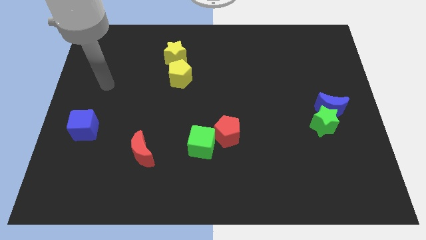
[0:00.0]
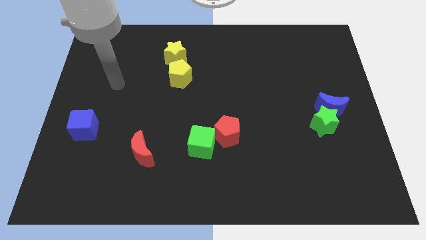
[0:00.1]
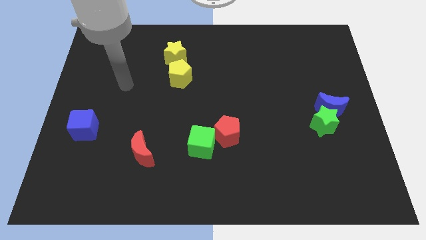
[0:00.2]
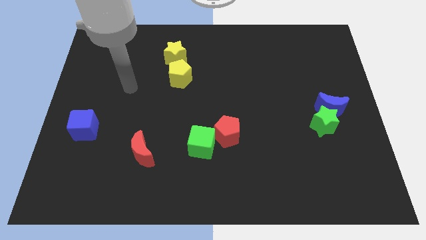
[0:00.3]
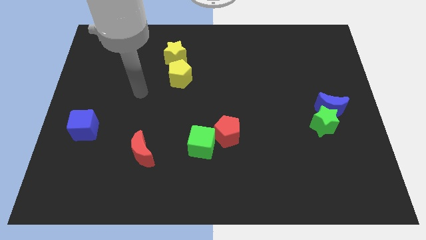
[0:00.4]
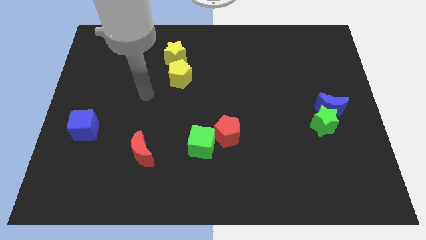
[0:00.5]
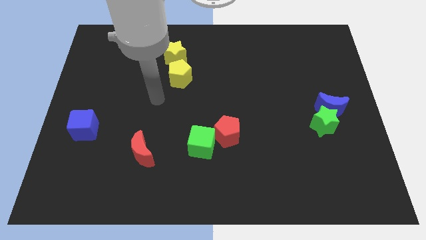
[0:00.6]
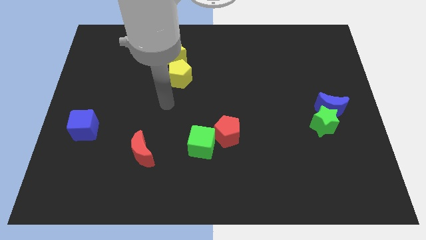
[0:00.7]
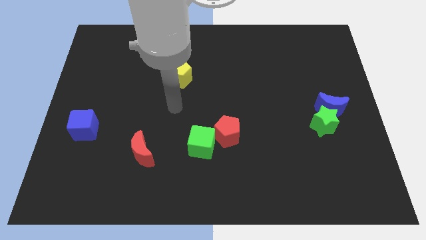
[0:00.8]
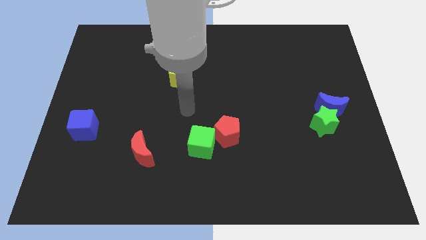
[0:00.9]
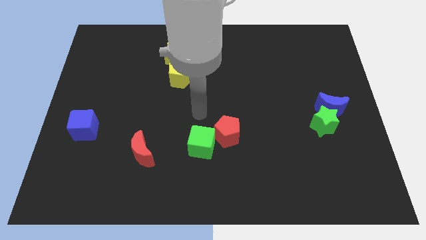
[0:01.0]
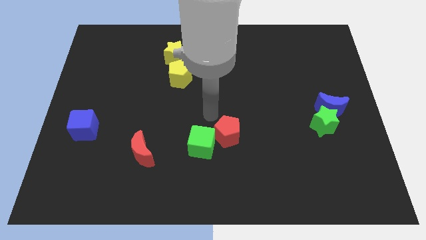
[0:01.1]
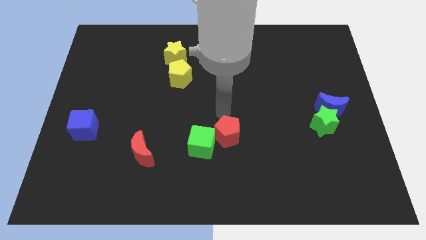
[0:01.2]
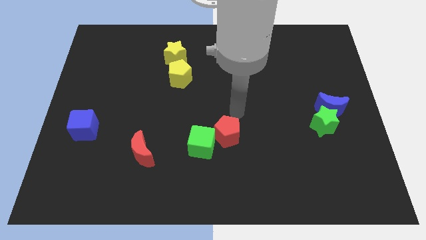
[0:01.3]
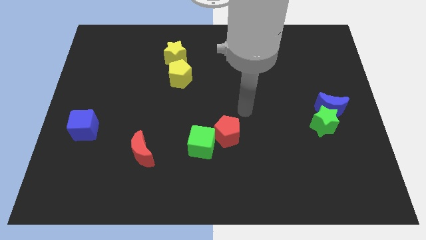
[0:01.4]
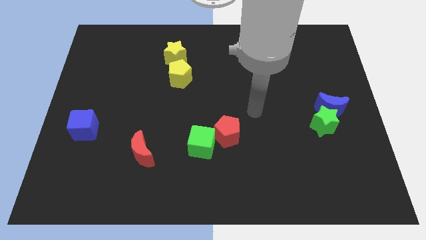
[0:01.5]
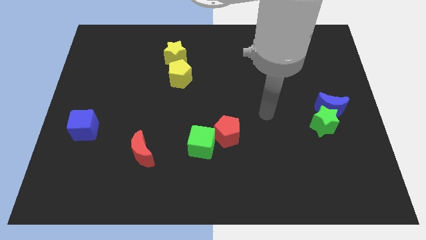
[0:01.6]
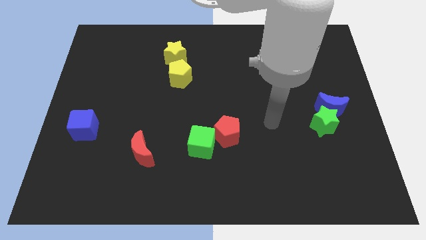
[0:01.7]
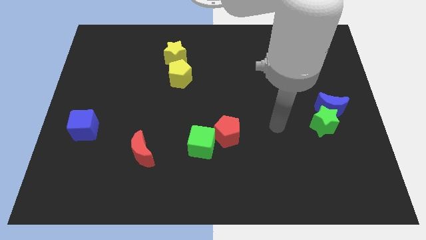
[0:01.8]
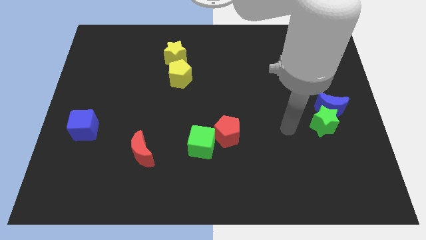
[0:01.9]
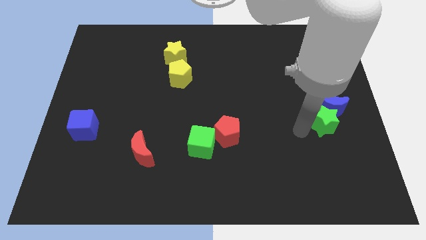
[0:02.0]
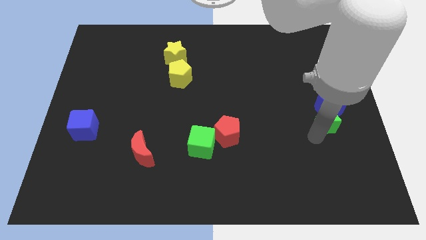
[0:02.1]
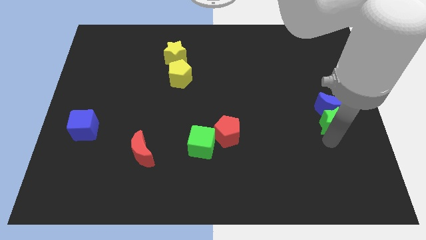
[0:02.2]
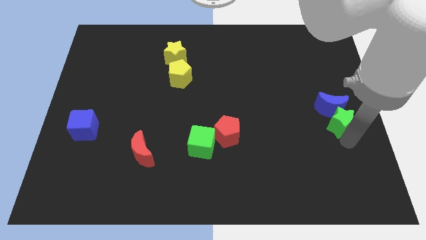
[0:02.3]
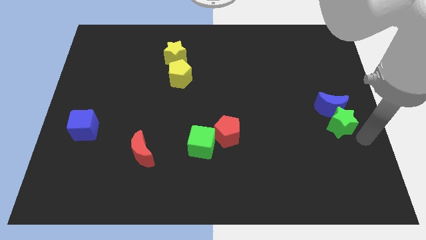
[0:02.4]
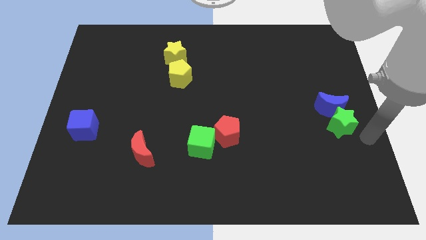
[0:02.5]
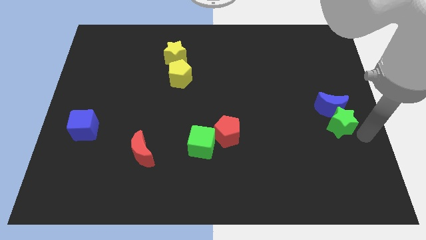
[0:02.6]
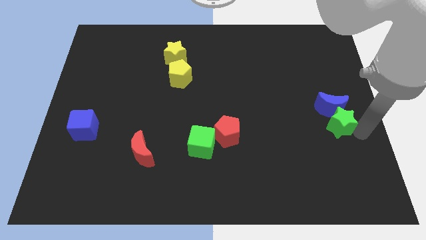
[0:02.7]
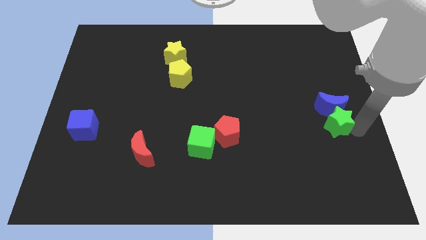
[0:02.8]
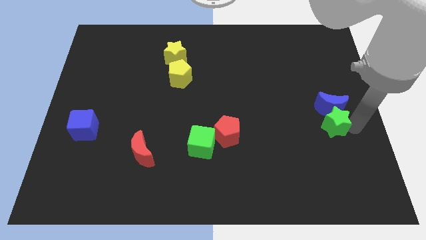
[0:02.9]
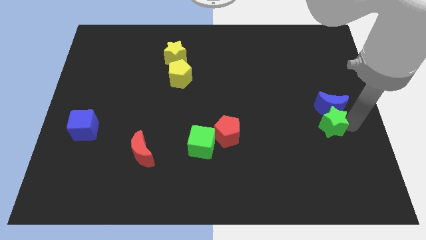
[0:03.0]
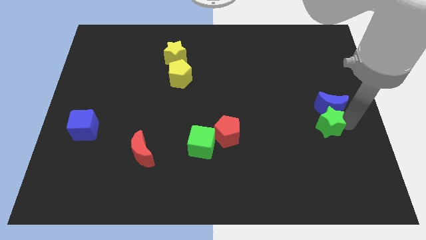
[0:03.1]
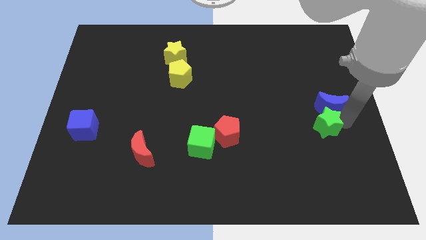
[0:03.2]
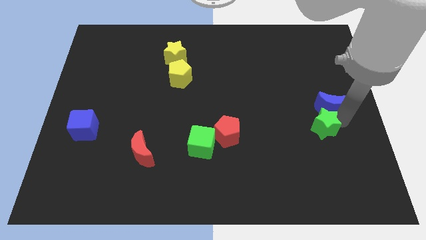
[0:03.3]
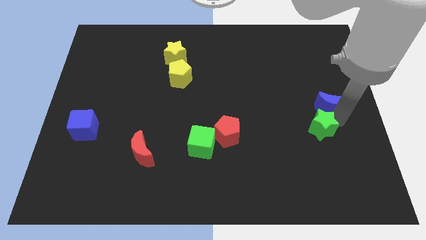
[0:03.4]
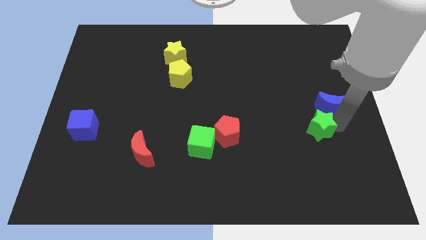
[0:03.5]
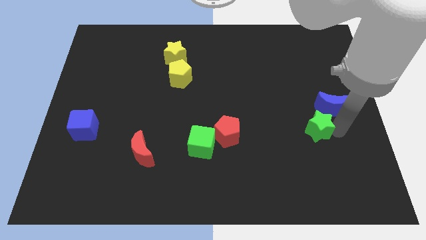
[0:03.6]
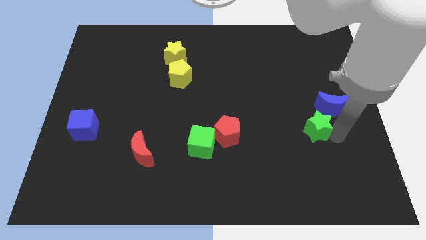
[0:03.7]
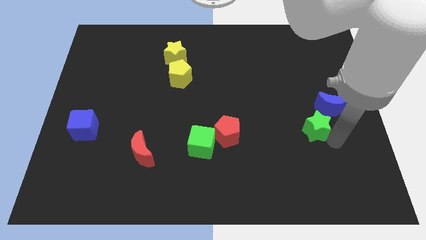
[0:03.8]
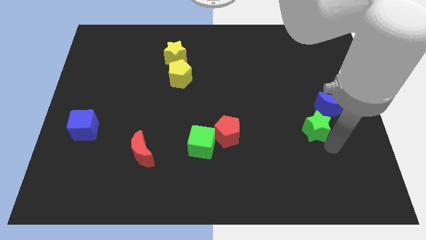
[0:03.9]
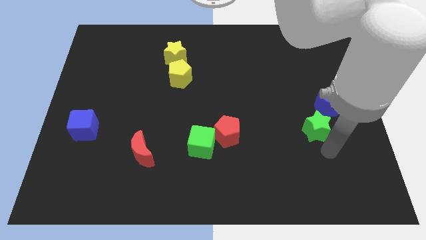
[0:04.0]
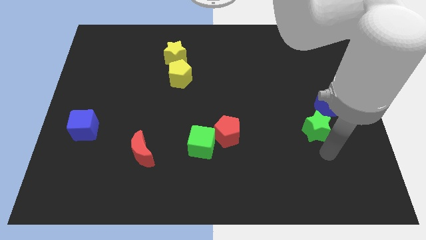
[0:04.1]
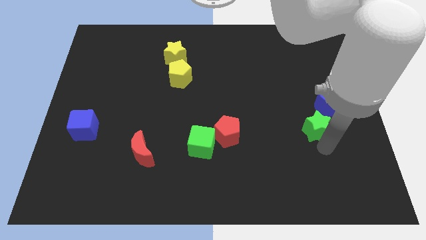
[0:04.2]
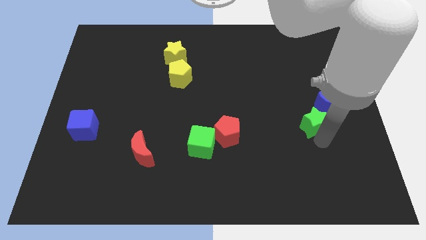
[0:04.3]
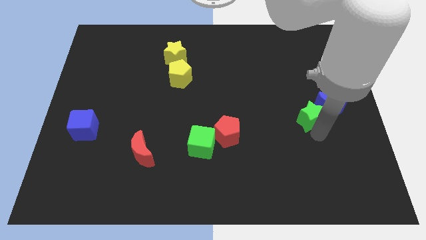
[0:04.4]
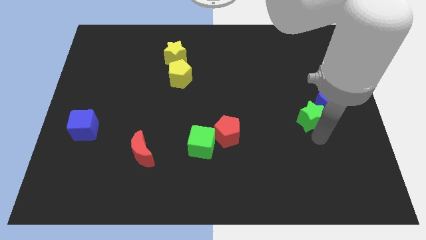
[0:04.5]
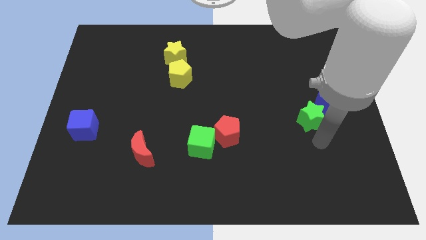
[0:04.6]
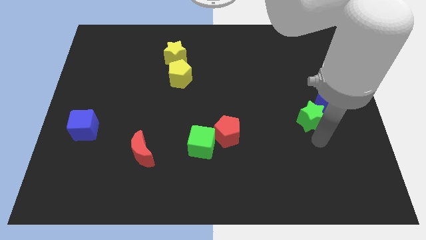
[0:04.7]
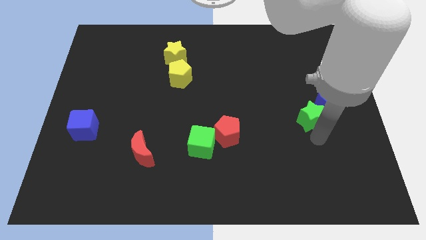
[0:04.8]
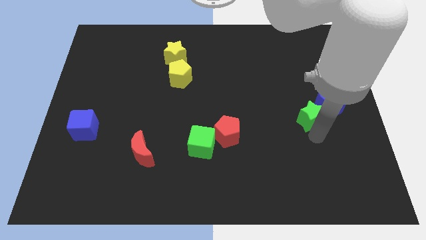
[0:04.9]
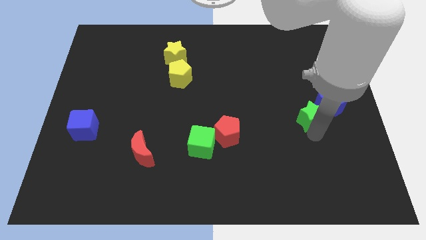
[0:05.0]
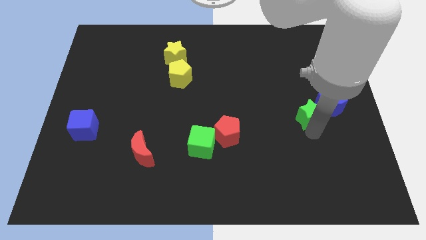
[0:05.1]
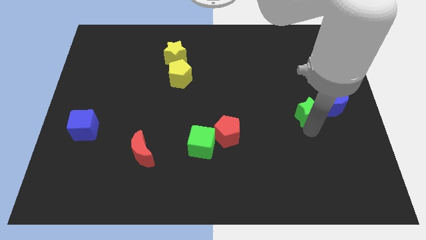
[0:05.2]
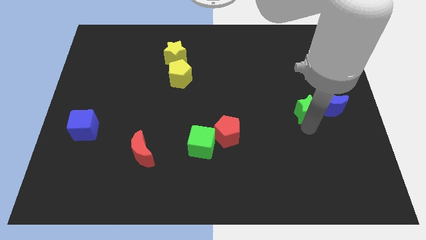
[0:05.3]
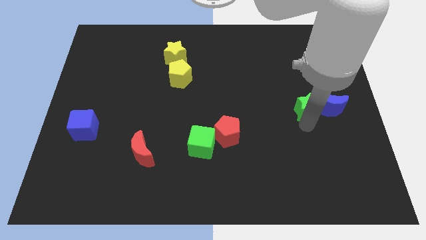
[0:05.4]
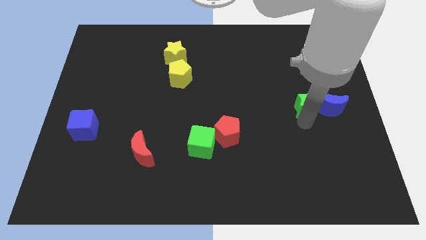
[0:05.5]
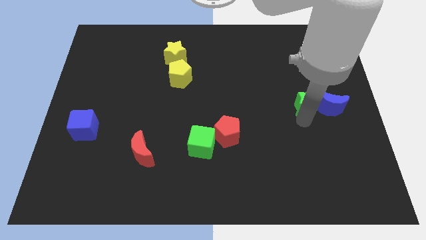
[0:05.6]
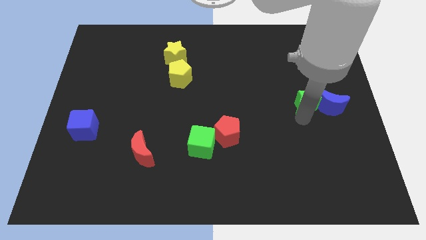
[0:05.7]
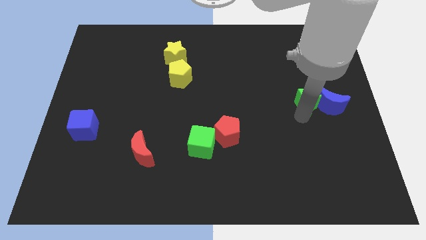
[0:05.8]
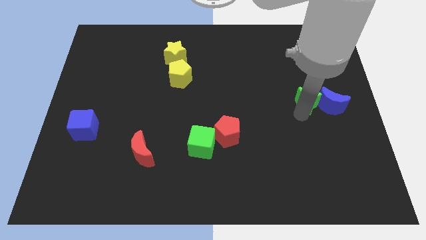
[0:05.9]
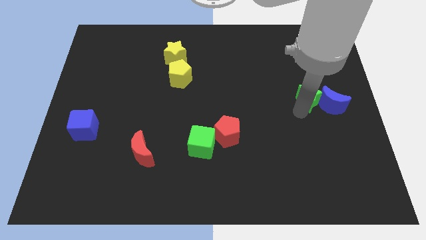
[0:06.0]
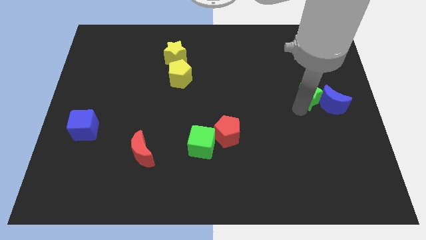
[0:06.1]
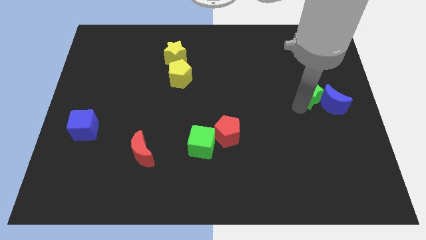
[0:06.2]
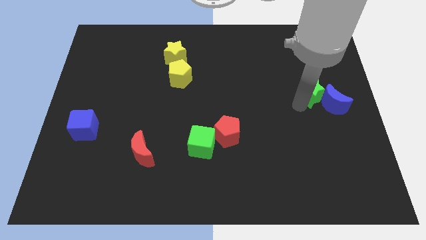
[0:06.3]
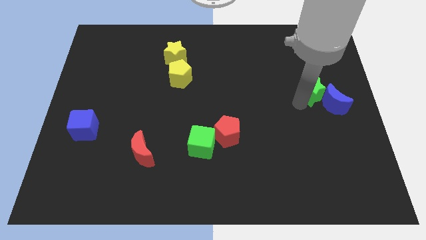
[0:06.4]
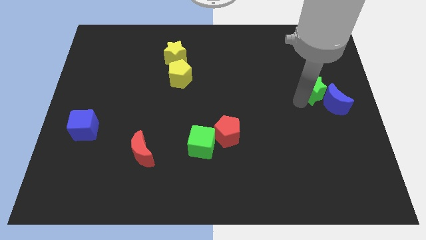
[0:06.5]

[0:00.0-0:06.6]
put the green star above the blue moon

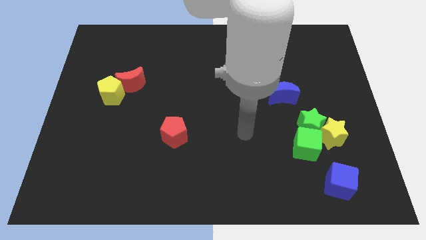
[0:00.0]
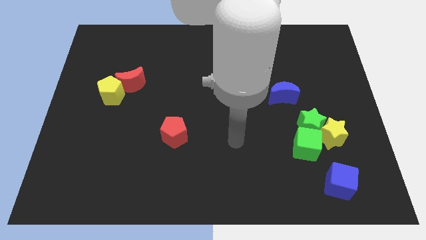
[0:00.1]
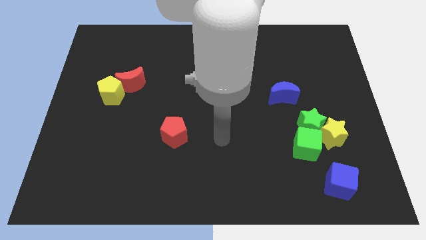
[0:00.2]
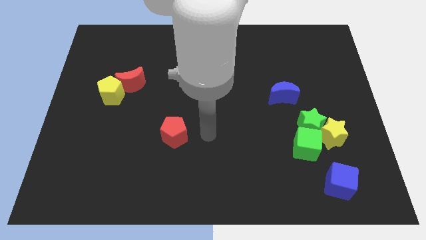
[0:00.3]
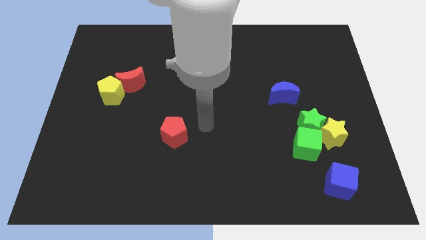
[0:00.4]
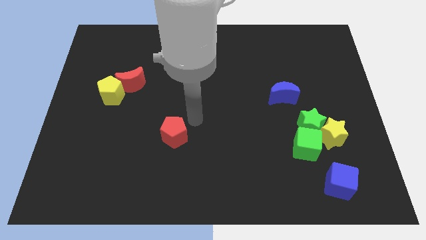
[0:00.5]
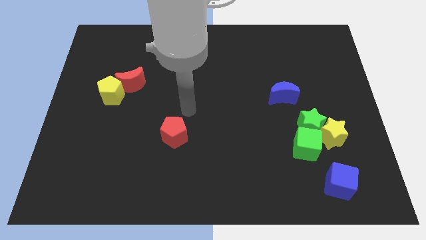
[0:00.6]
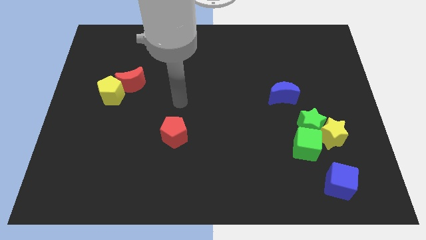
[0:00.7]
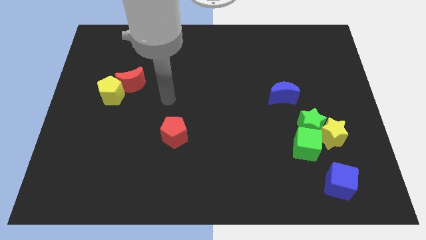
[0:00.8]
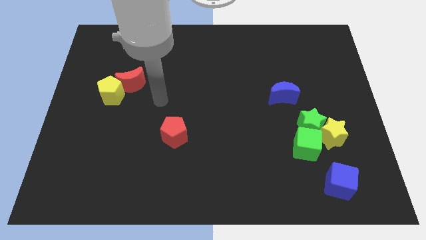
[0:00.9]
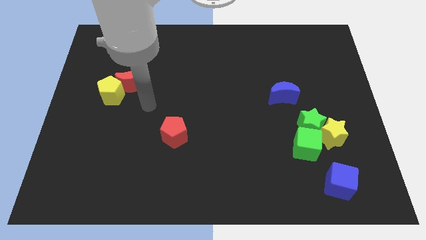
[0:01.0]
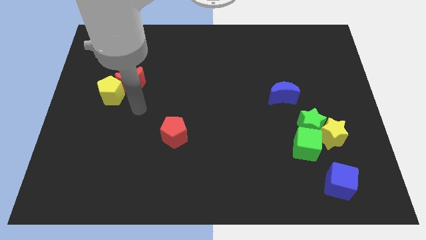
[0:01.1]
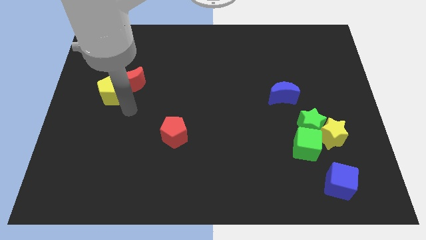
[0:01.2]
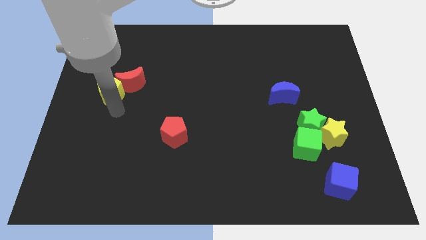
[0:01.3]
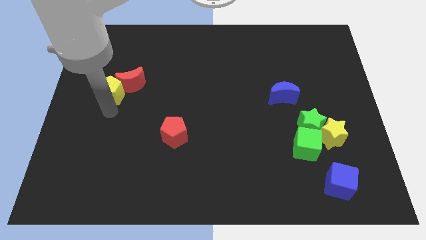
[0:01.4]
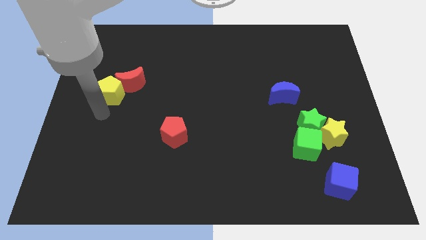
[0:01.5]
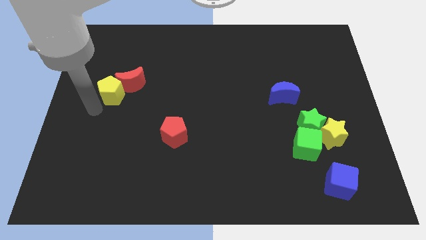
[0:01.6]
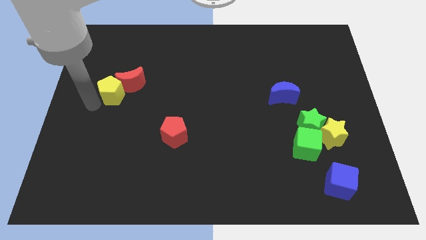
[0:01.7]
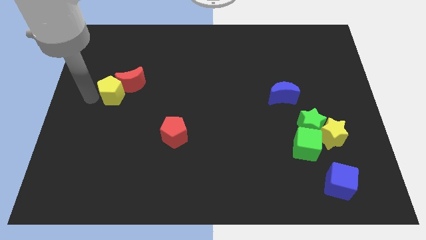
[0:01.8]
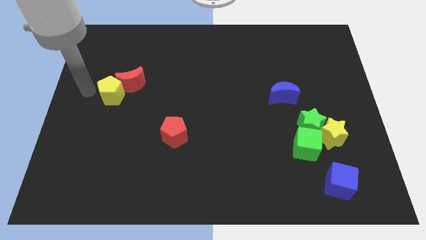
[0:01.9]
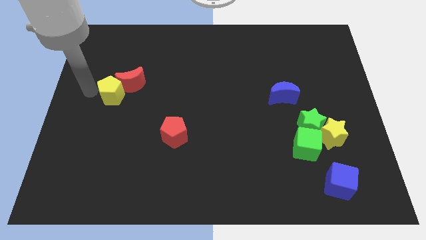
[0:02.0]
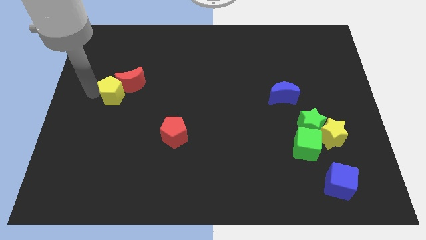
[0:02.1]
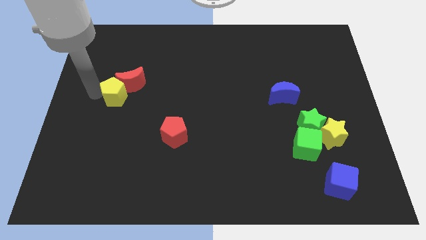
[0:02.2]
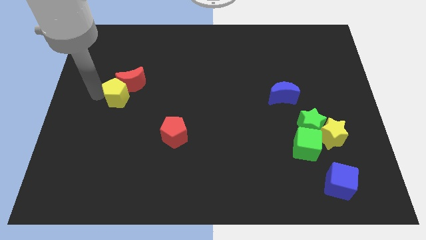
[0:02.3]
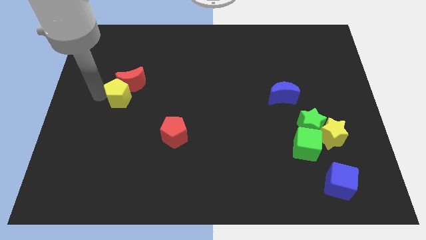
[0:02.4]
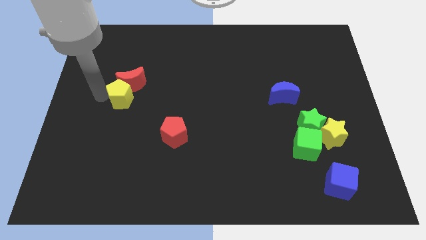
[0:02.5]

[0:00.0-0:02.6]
put the yellow pentagon to the bottom right of the red moon
